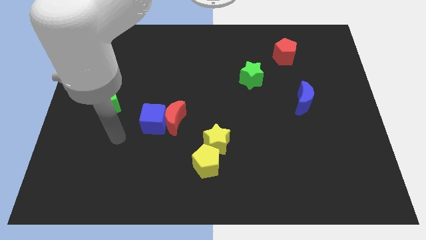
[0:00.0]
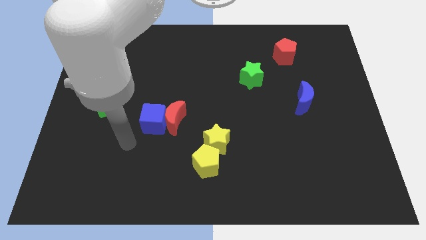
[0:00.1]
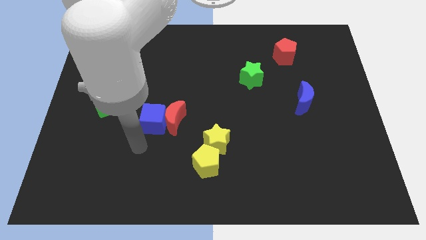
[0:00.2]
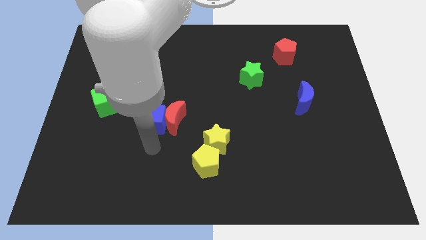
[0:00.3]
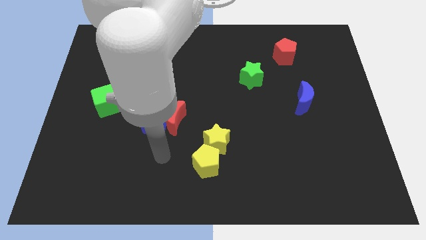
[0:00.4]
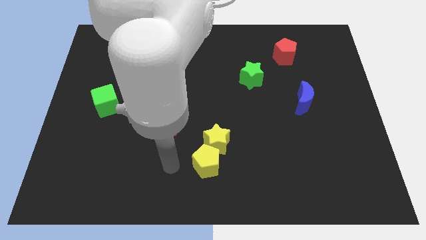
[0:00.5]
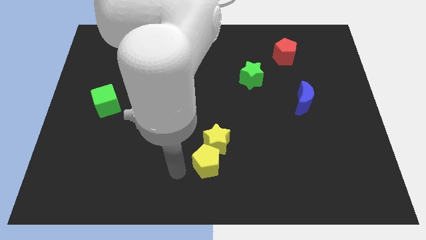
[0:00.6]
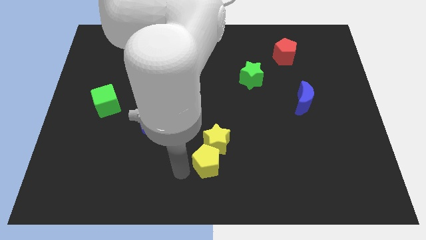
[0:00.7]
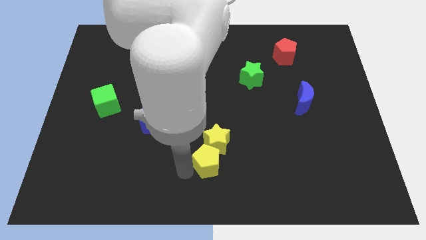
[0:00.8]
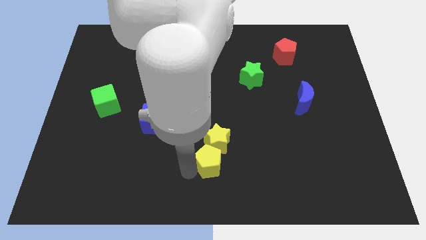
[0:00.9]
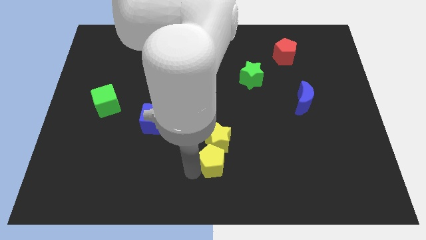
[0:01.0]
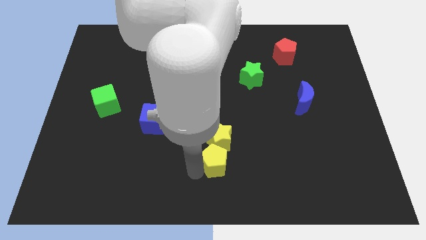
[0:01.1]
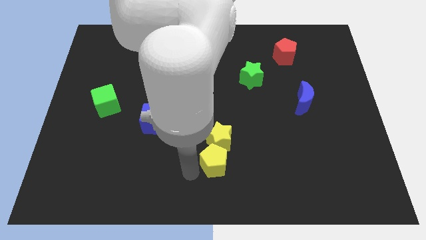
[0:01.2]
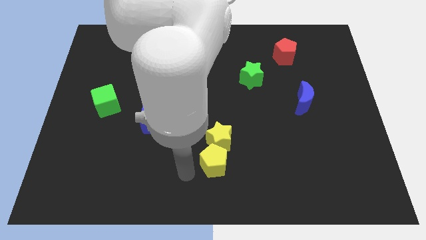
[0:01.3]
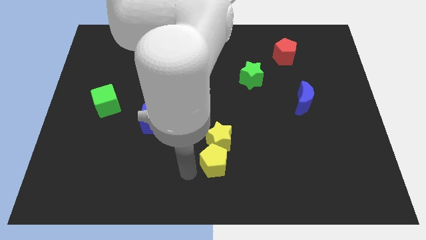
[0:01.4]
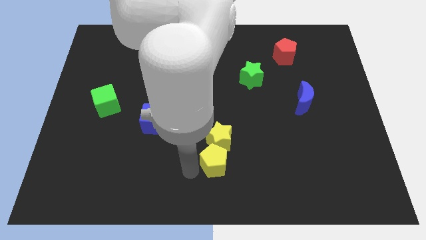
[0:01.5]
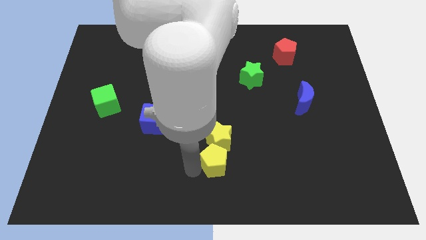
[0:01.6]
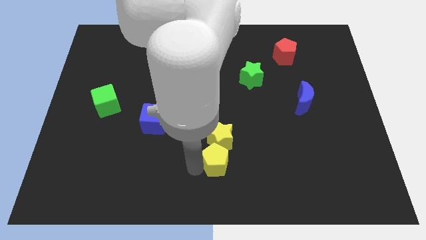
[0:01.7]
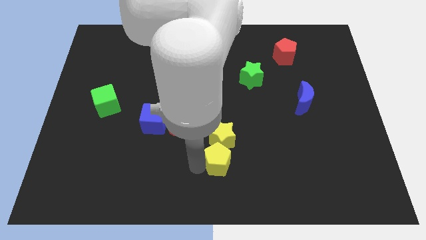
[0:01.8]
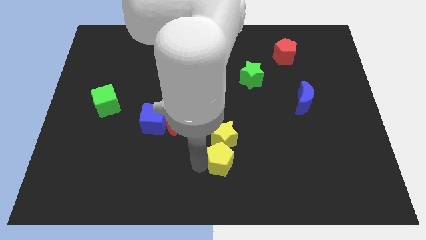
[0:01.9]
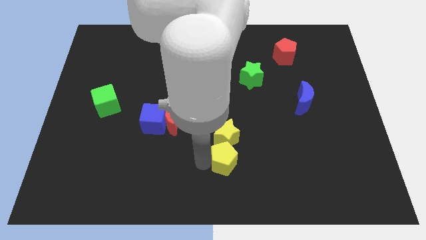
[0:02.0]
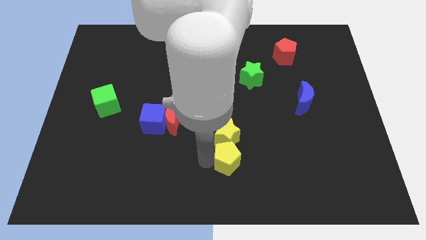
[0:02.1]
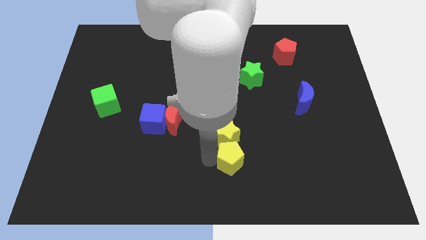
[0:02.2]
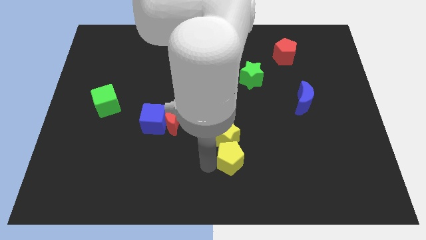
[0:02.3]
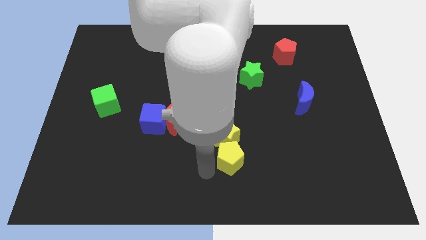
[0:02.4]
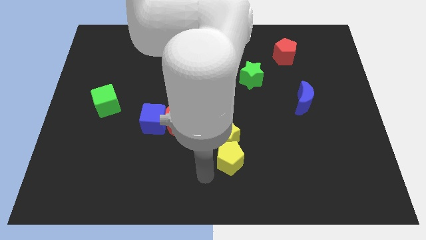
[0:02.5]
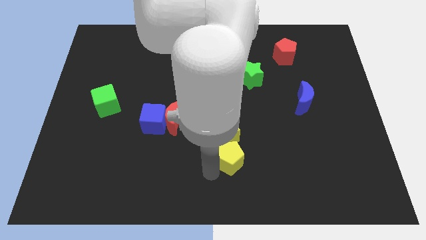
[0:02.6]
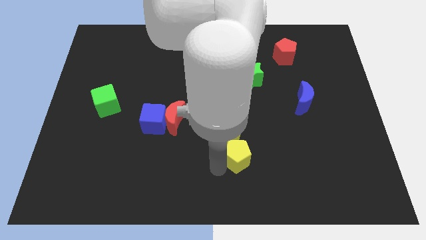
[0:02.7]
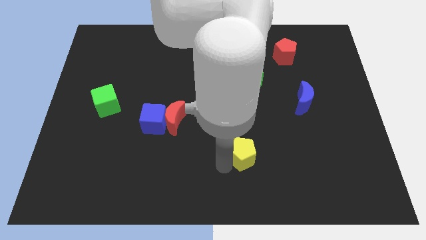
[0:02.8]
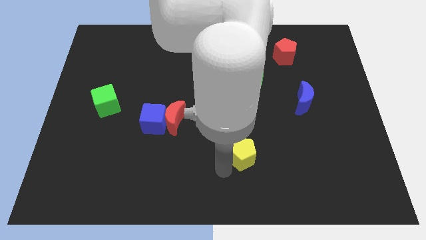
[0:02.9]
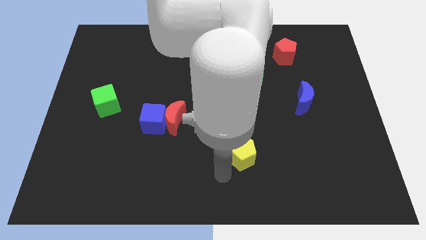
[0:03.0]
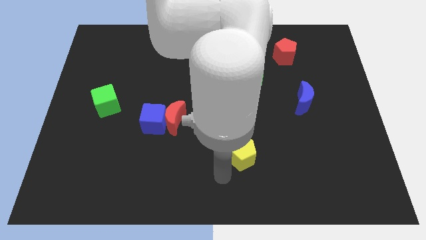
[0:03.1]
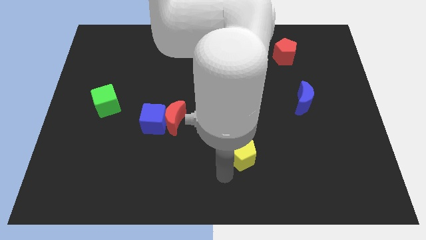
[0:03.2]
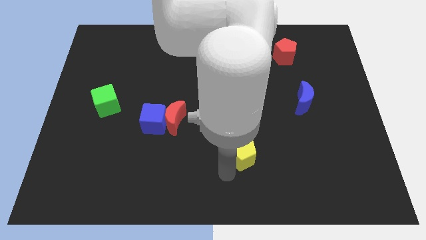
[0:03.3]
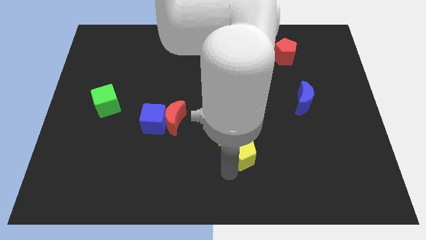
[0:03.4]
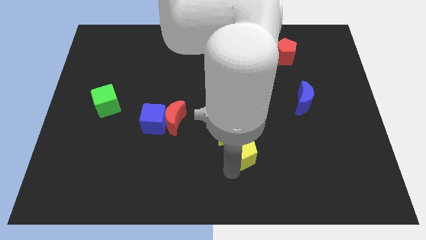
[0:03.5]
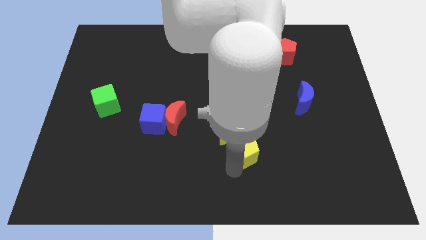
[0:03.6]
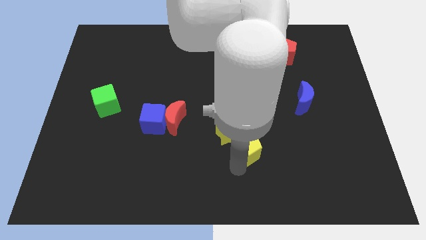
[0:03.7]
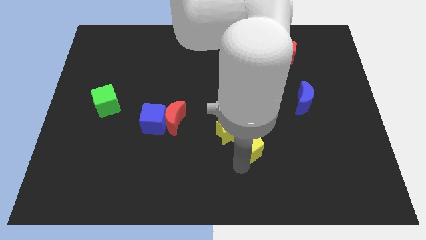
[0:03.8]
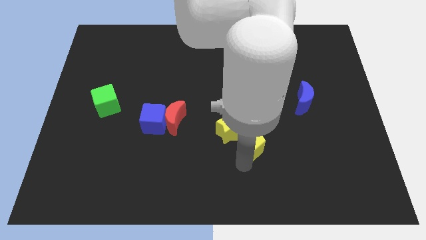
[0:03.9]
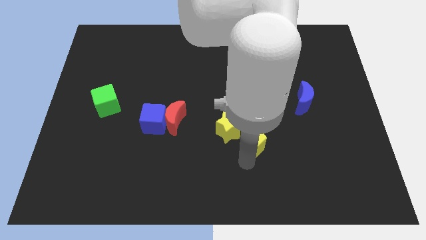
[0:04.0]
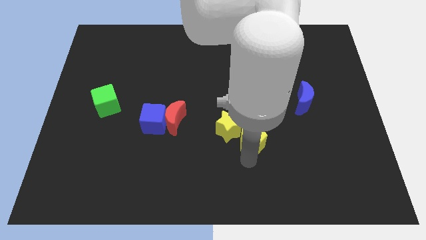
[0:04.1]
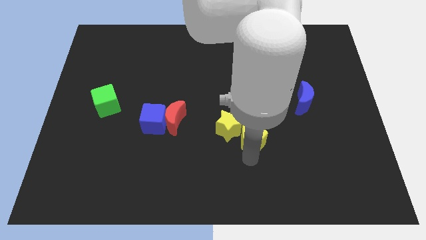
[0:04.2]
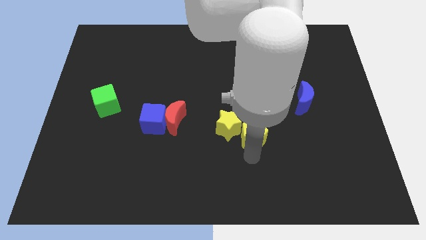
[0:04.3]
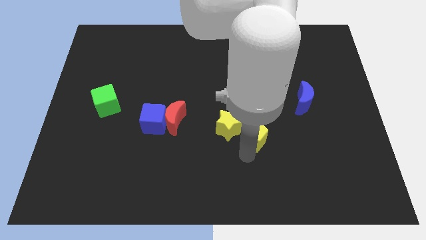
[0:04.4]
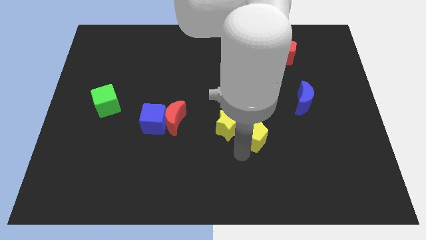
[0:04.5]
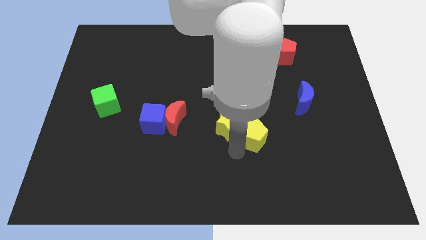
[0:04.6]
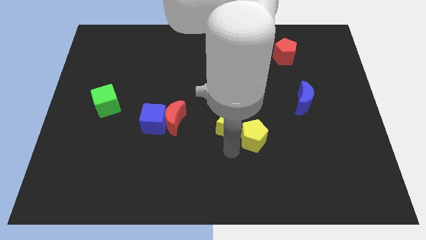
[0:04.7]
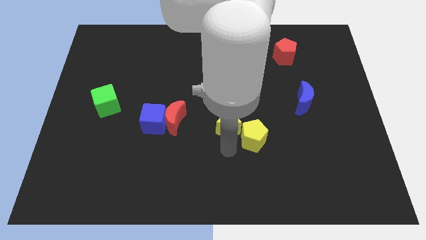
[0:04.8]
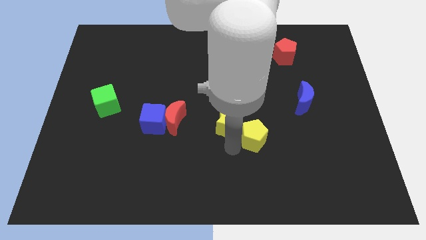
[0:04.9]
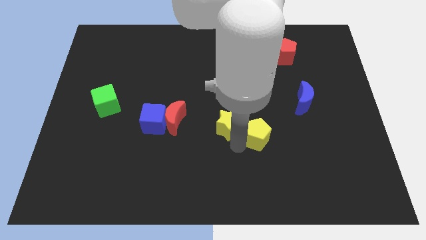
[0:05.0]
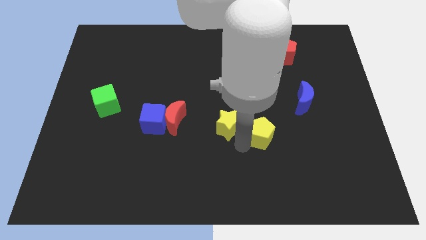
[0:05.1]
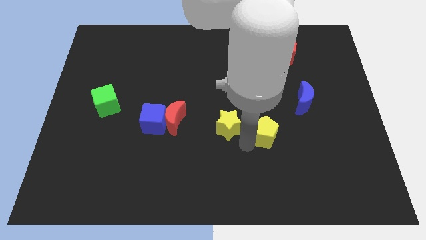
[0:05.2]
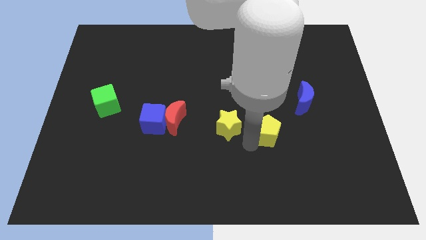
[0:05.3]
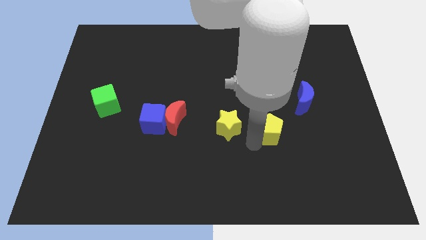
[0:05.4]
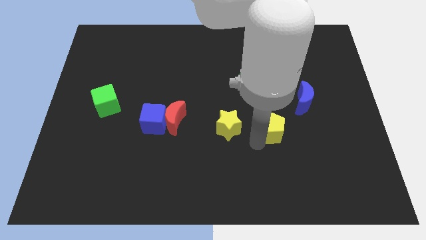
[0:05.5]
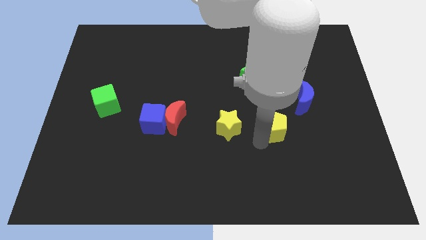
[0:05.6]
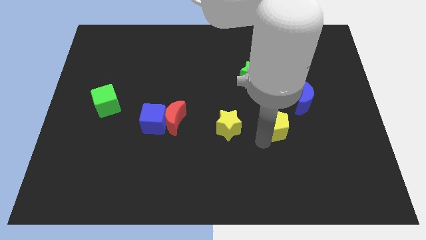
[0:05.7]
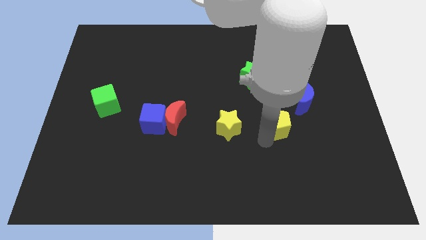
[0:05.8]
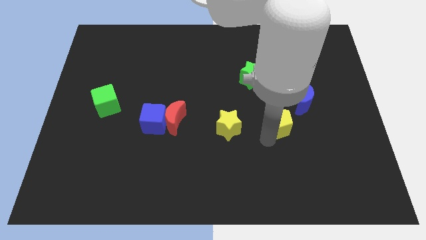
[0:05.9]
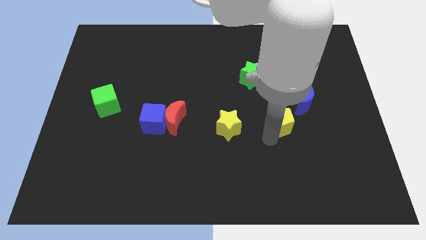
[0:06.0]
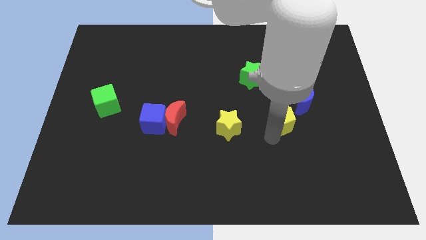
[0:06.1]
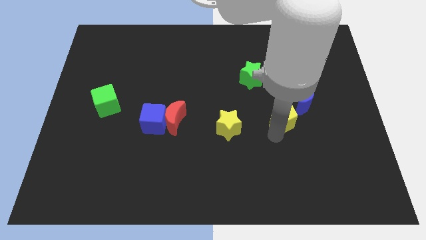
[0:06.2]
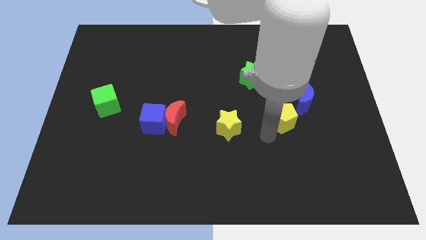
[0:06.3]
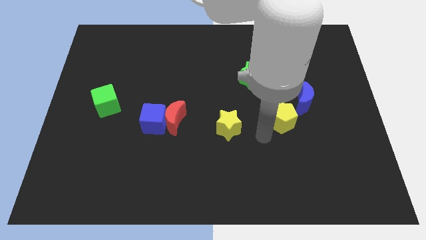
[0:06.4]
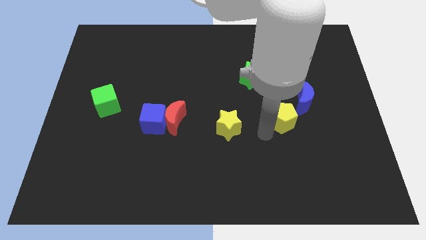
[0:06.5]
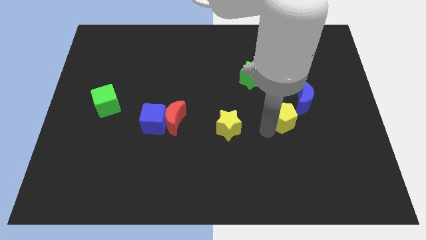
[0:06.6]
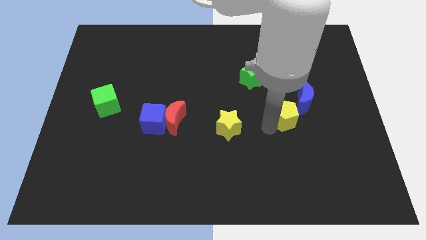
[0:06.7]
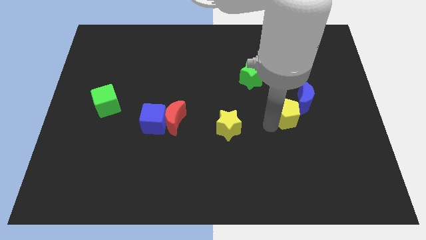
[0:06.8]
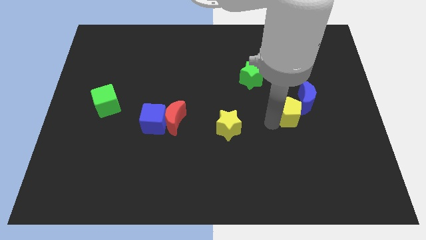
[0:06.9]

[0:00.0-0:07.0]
put the yellow pentagon to the blue moon
